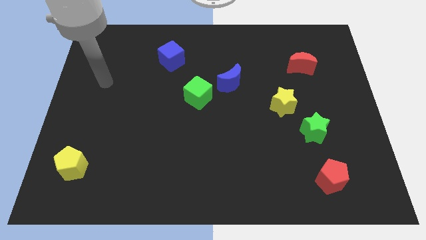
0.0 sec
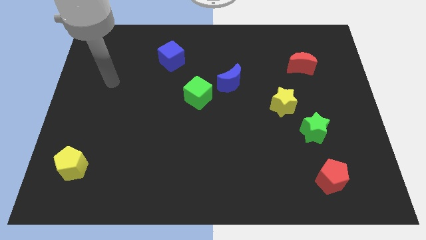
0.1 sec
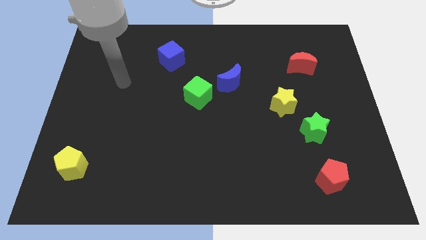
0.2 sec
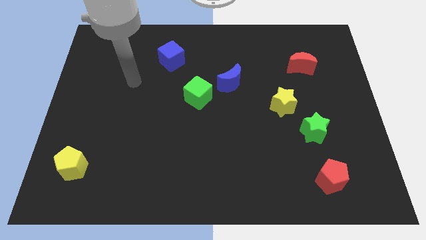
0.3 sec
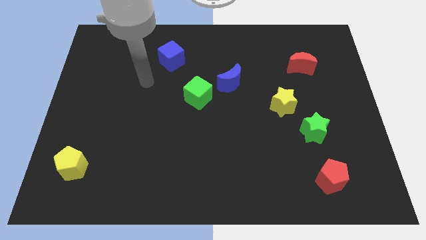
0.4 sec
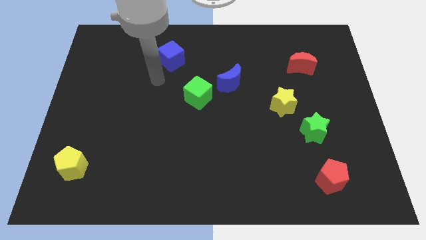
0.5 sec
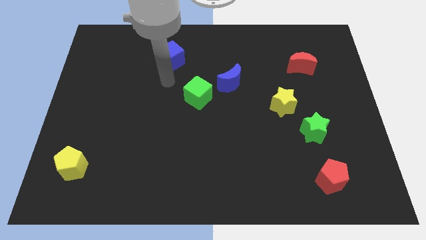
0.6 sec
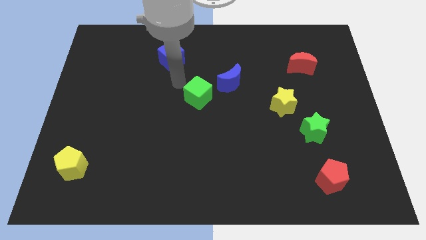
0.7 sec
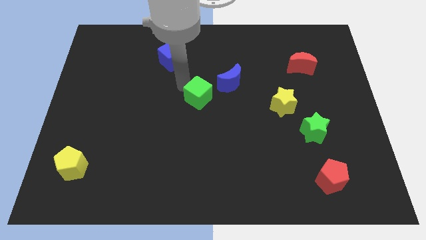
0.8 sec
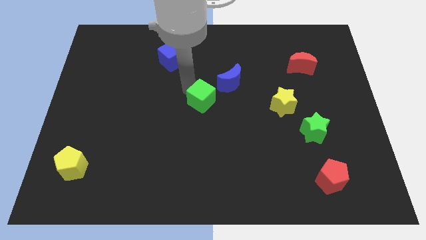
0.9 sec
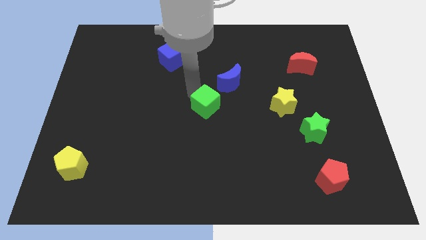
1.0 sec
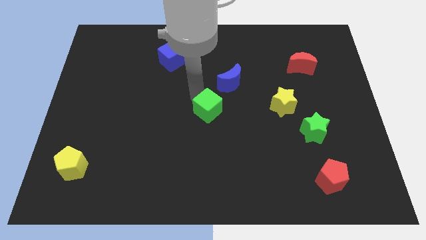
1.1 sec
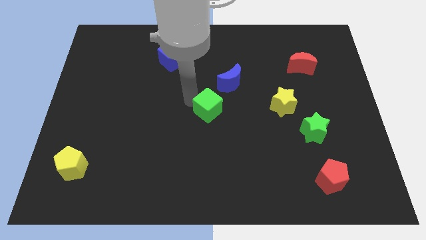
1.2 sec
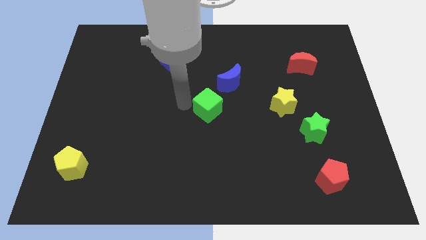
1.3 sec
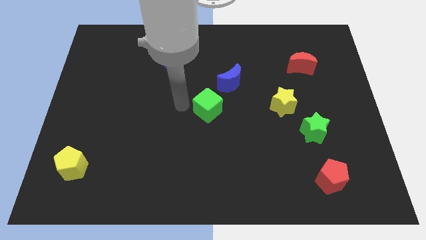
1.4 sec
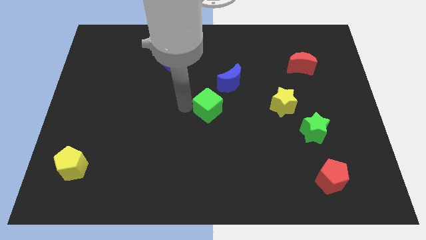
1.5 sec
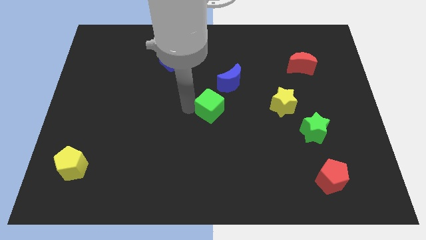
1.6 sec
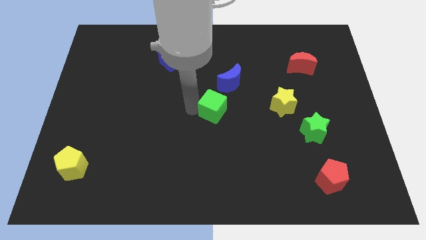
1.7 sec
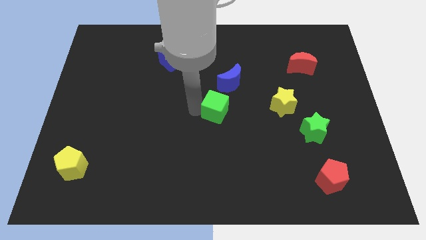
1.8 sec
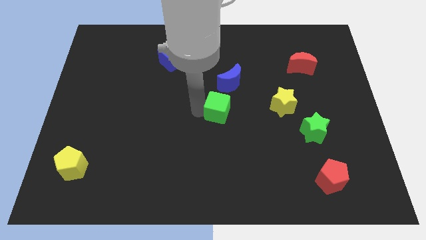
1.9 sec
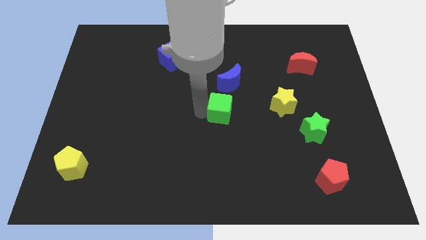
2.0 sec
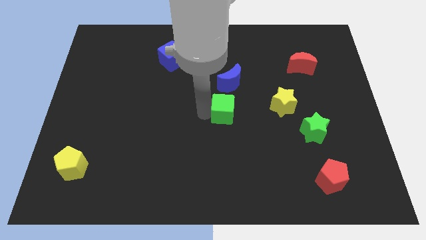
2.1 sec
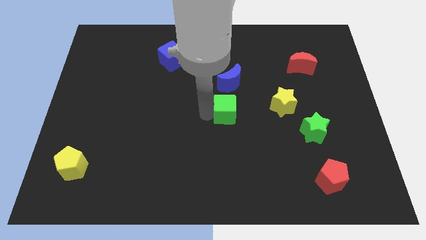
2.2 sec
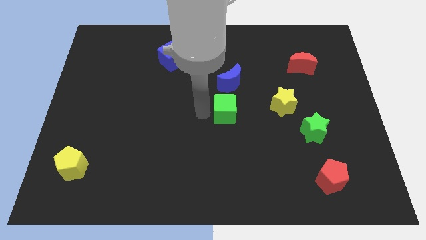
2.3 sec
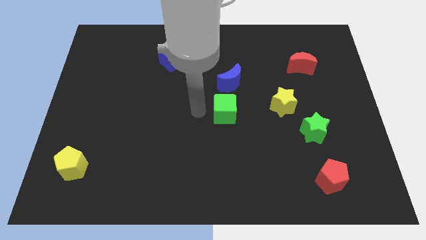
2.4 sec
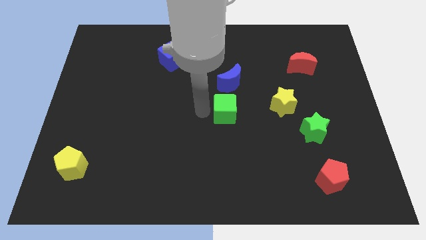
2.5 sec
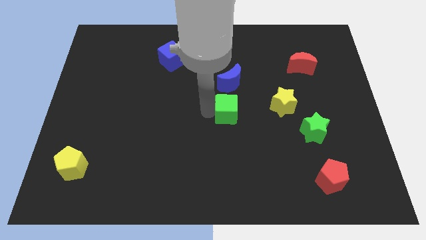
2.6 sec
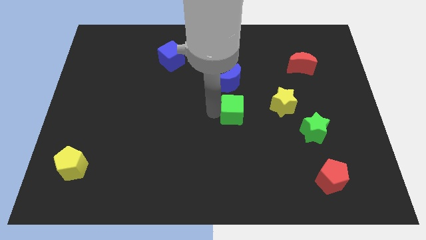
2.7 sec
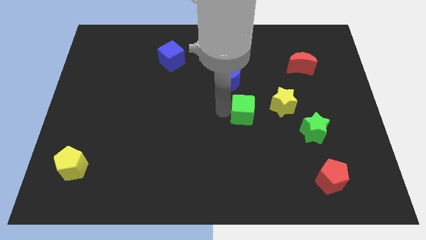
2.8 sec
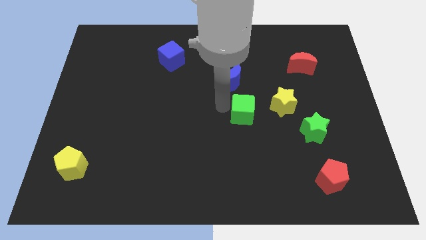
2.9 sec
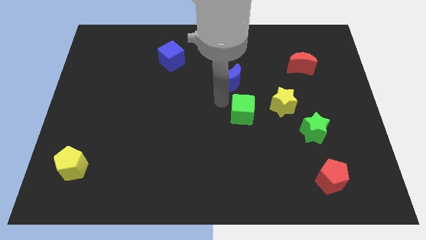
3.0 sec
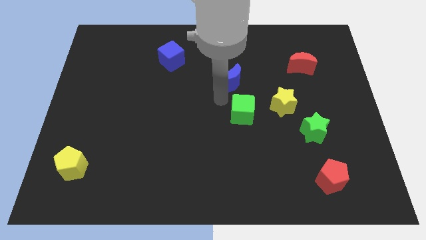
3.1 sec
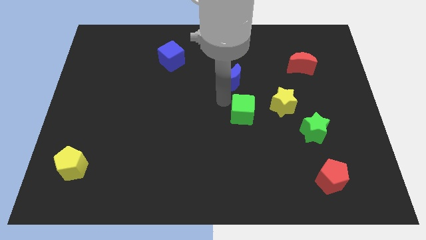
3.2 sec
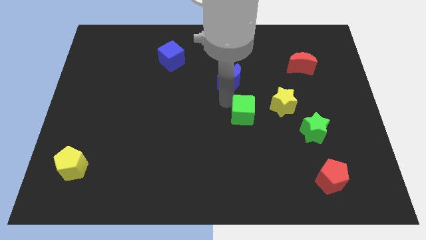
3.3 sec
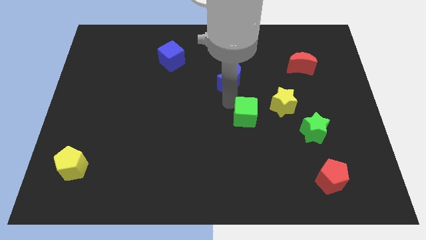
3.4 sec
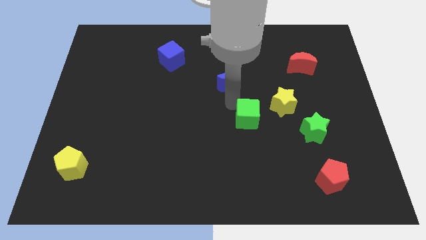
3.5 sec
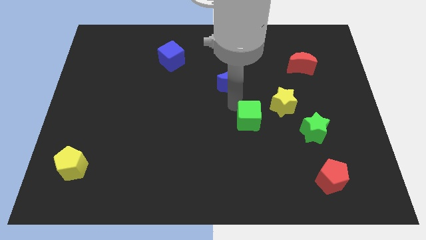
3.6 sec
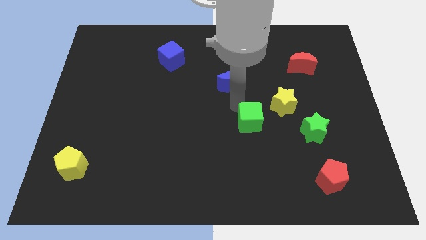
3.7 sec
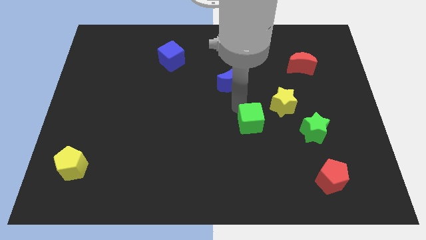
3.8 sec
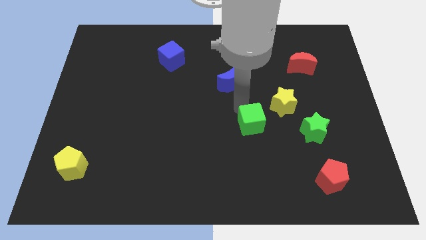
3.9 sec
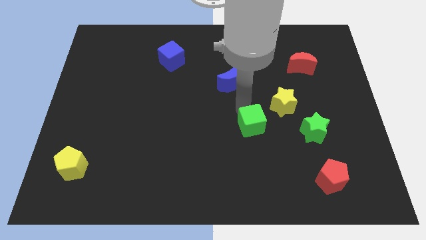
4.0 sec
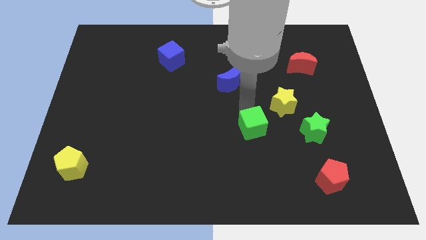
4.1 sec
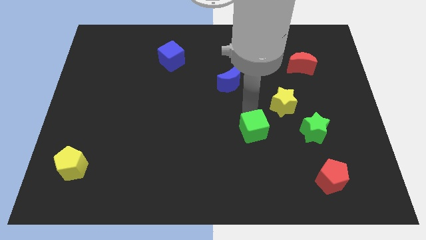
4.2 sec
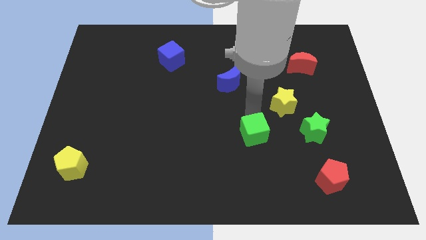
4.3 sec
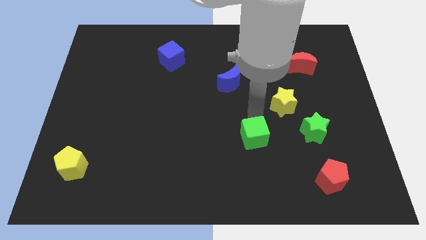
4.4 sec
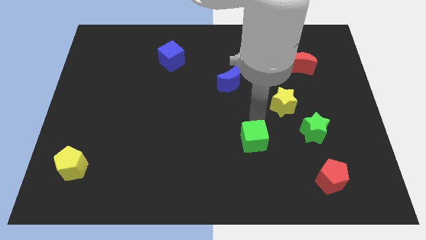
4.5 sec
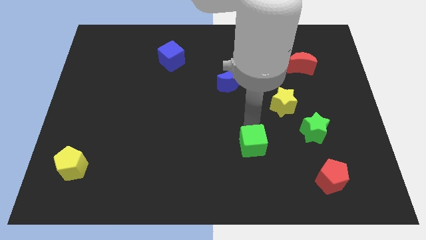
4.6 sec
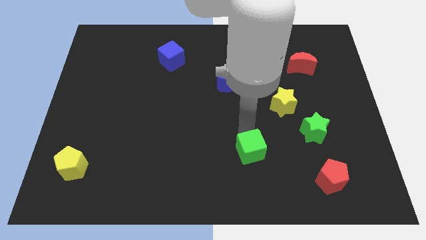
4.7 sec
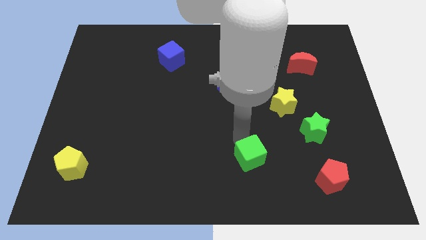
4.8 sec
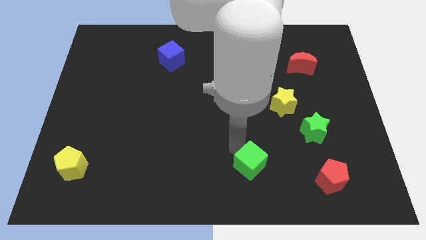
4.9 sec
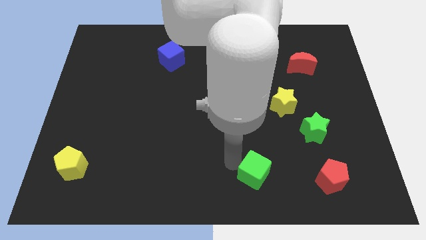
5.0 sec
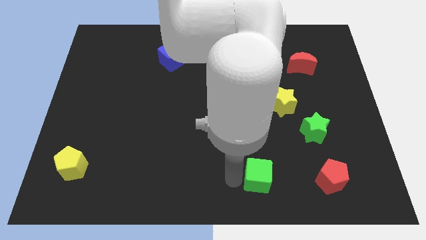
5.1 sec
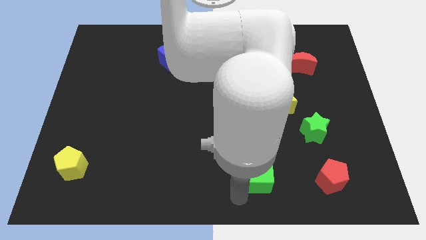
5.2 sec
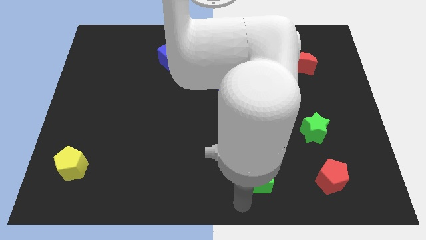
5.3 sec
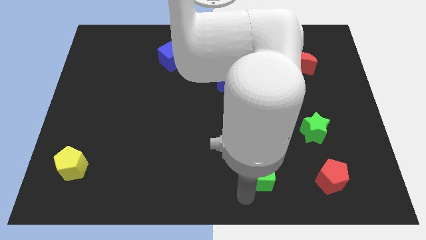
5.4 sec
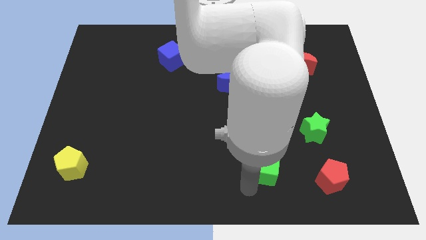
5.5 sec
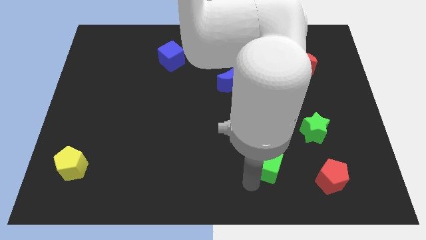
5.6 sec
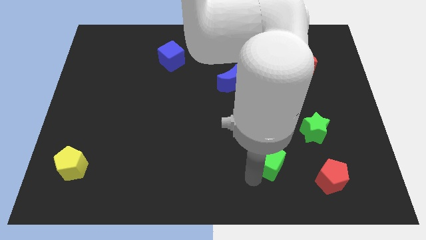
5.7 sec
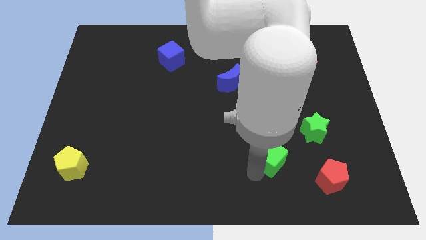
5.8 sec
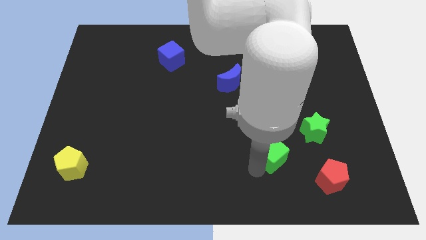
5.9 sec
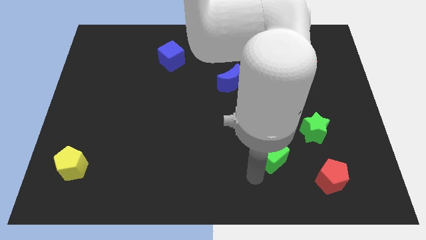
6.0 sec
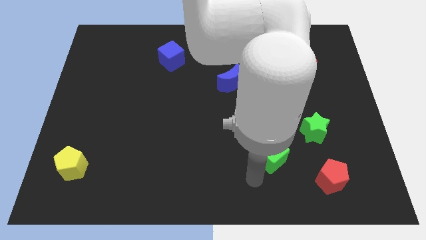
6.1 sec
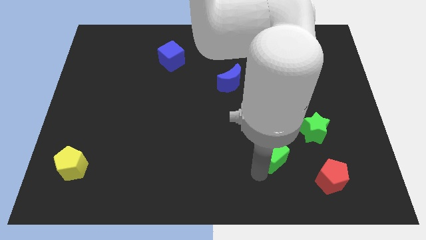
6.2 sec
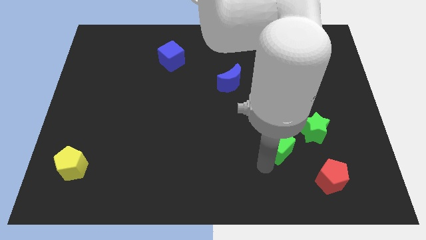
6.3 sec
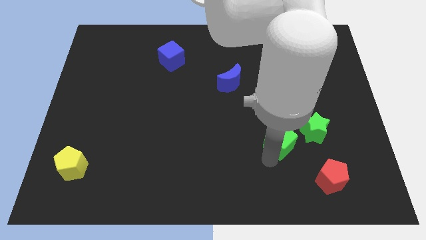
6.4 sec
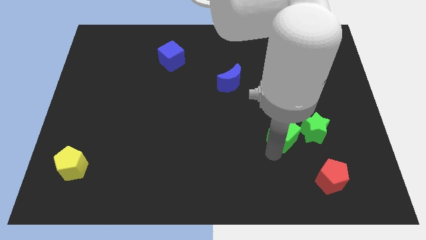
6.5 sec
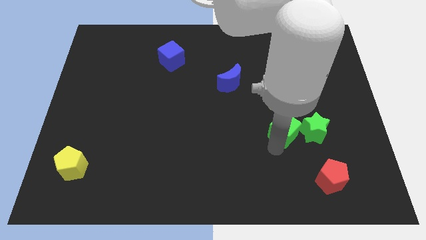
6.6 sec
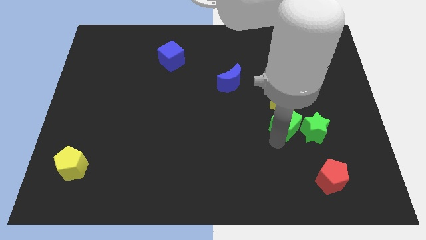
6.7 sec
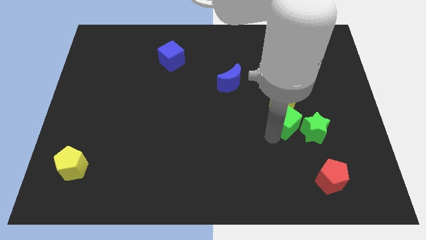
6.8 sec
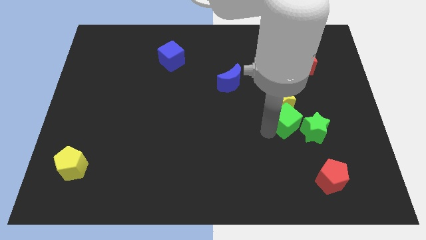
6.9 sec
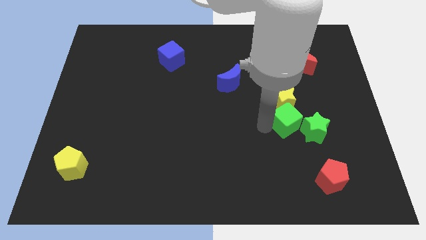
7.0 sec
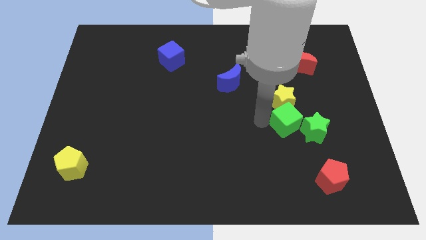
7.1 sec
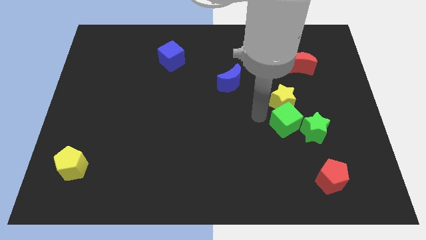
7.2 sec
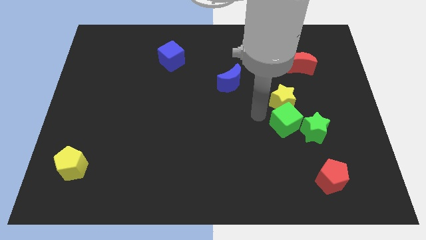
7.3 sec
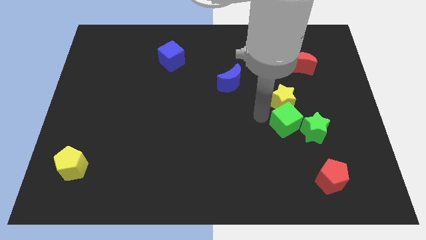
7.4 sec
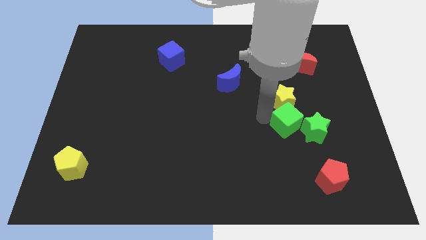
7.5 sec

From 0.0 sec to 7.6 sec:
slide the green cube towards the green star
